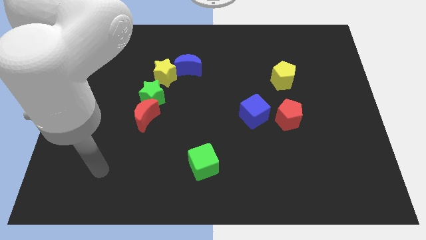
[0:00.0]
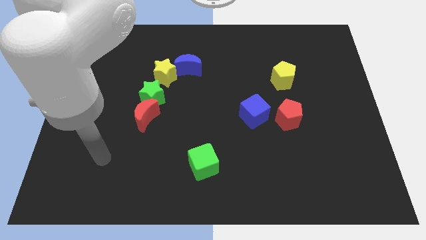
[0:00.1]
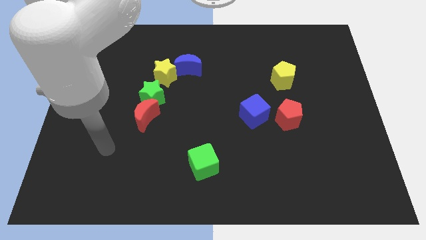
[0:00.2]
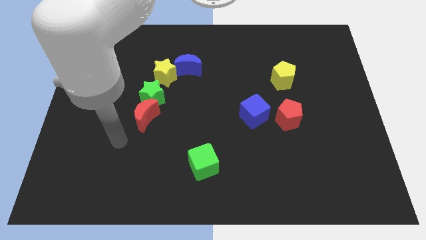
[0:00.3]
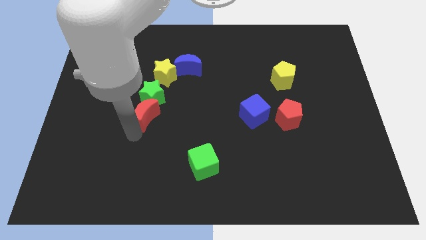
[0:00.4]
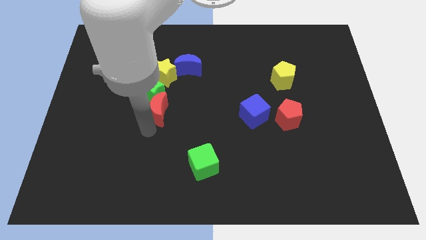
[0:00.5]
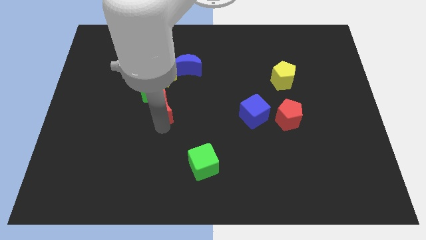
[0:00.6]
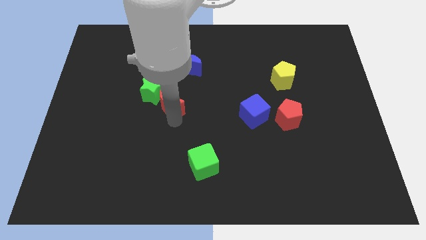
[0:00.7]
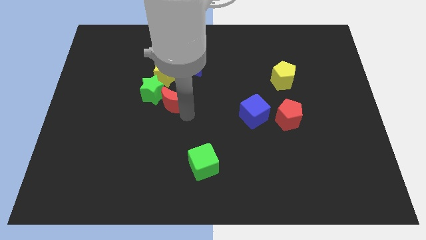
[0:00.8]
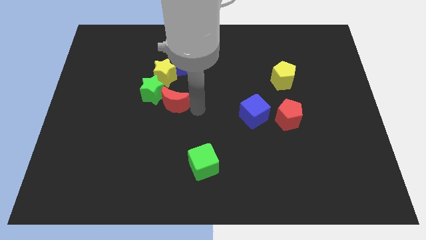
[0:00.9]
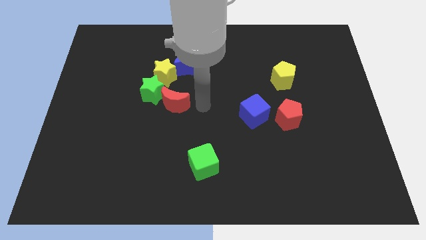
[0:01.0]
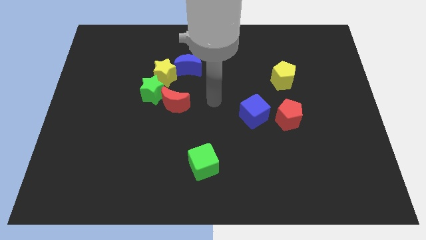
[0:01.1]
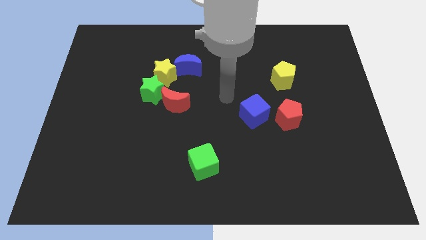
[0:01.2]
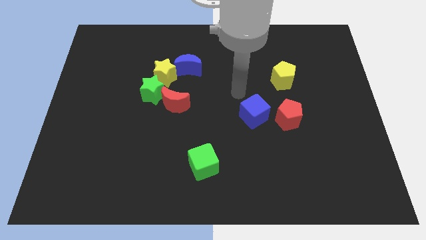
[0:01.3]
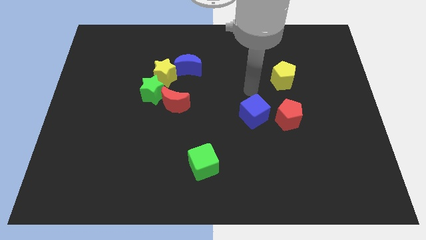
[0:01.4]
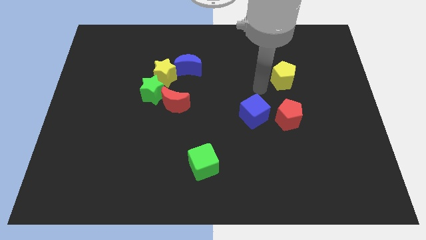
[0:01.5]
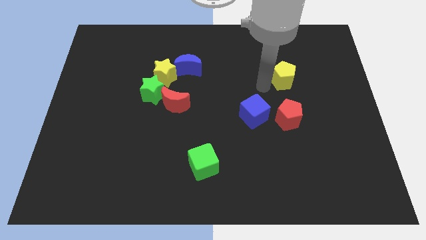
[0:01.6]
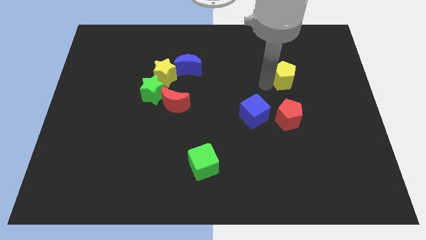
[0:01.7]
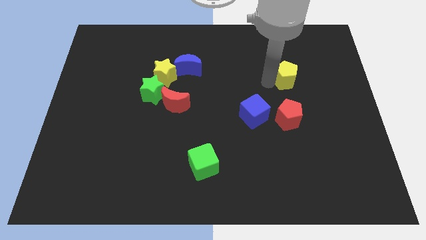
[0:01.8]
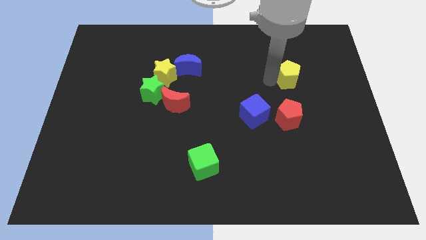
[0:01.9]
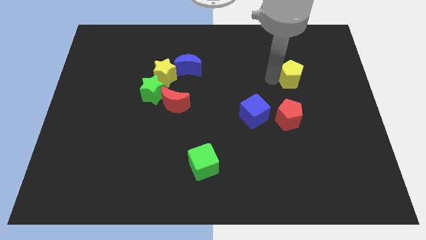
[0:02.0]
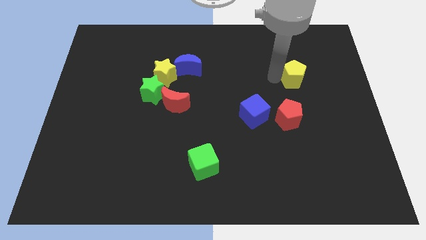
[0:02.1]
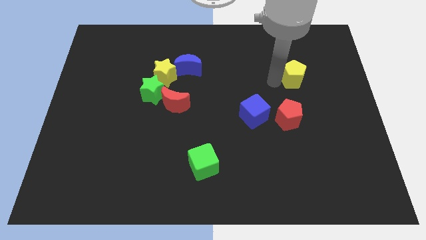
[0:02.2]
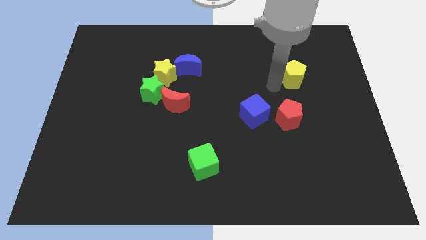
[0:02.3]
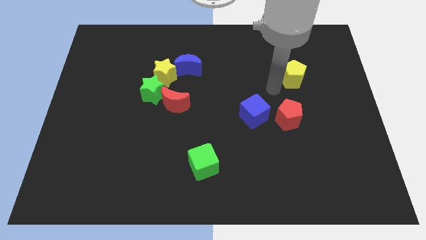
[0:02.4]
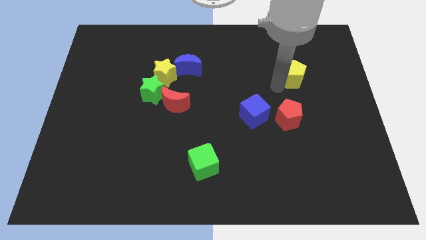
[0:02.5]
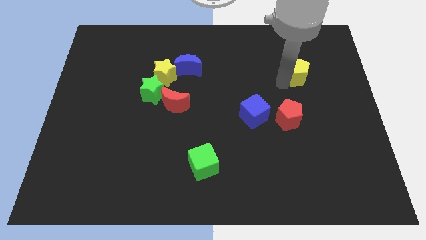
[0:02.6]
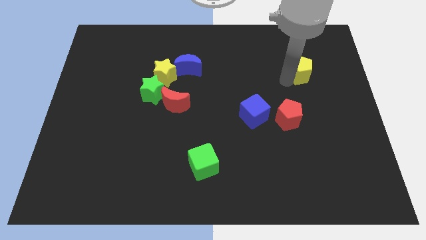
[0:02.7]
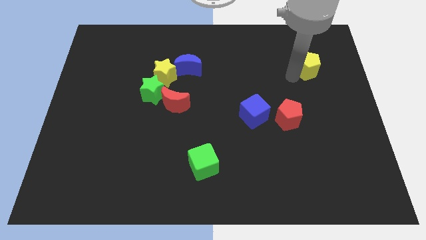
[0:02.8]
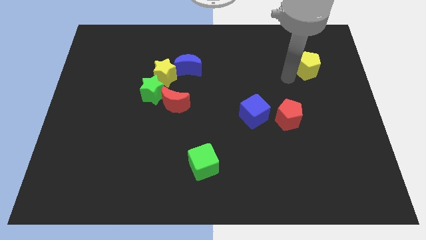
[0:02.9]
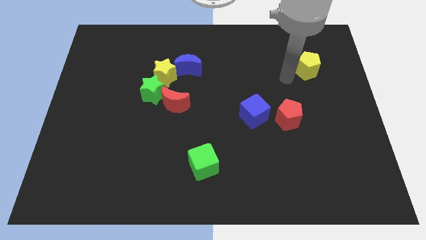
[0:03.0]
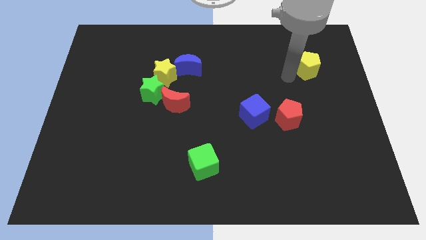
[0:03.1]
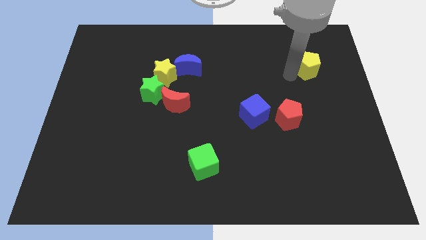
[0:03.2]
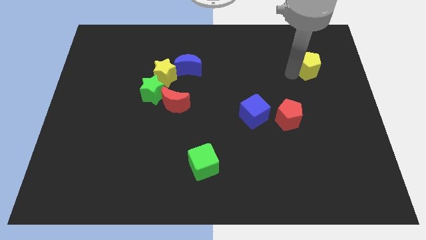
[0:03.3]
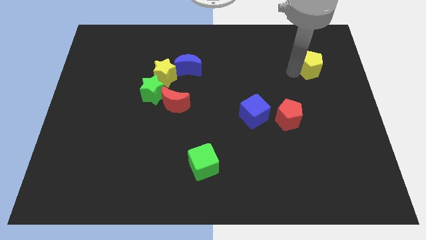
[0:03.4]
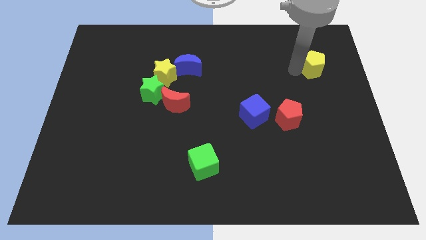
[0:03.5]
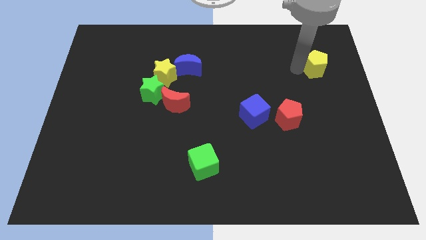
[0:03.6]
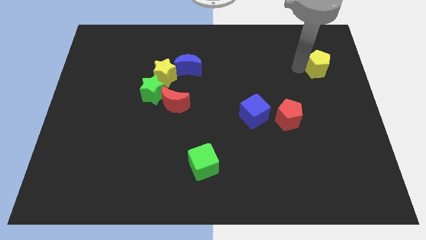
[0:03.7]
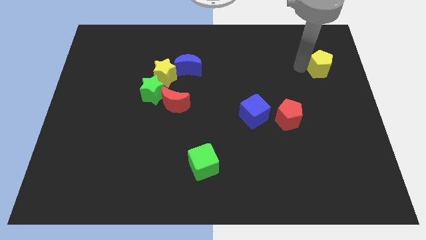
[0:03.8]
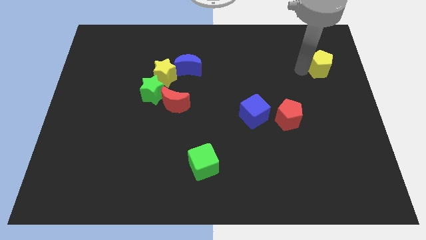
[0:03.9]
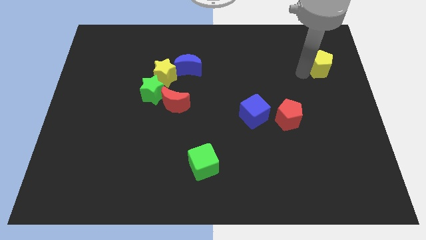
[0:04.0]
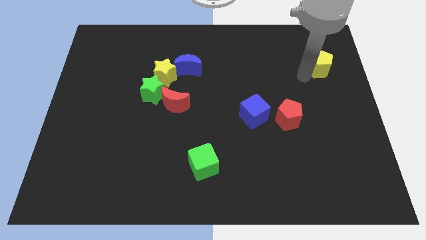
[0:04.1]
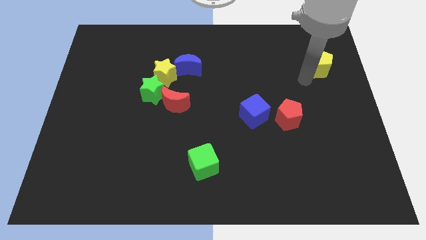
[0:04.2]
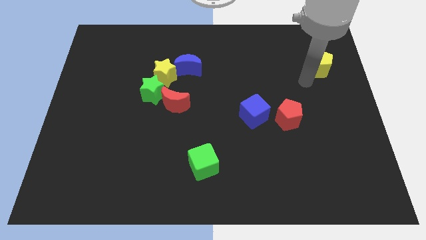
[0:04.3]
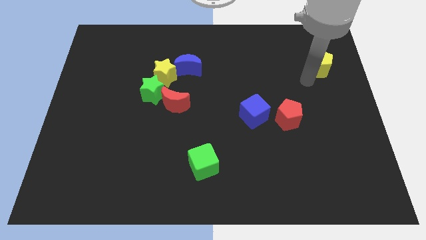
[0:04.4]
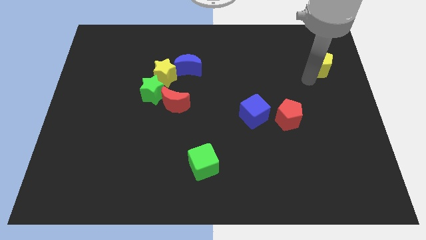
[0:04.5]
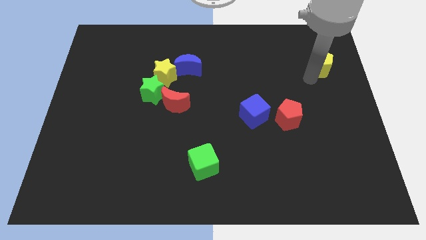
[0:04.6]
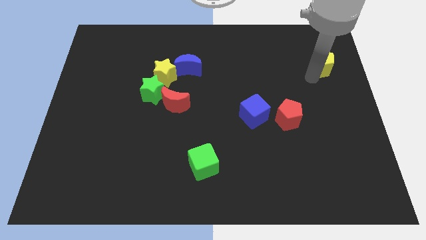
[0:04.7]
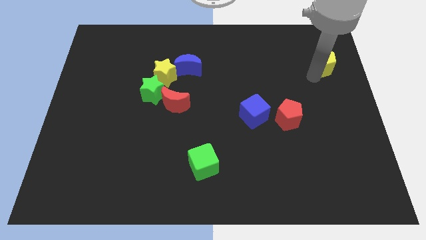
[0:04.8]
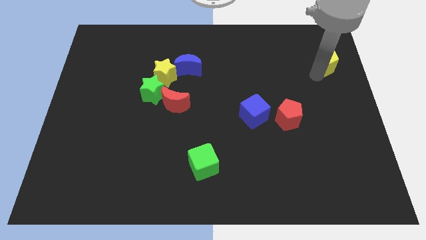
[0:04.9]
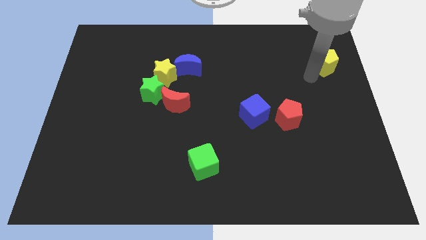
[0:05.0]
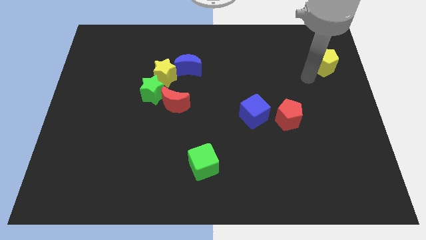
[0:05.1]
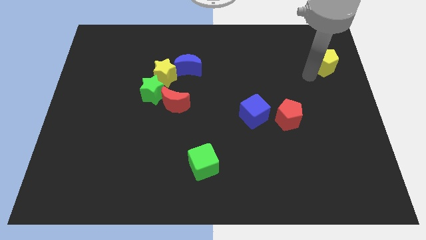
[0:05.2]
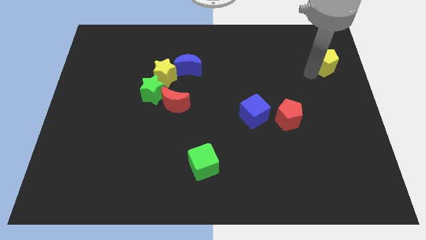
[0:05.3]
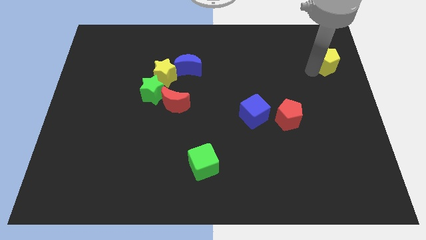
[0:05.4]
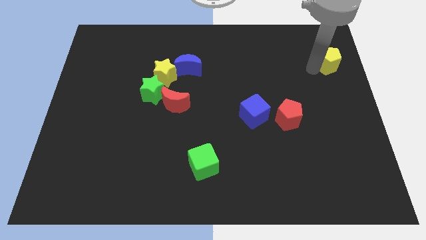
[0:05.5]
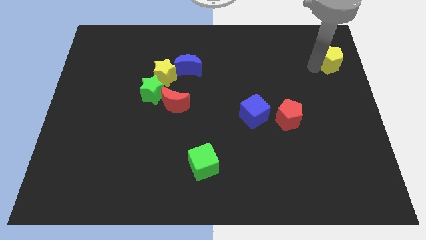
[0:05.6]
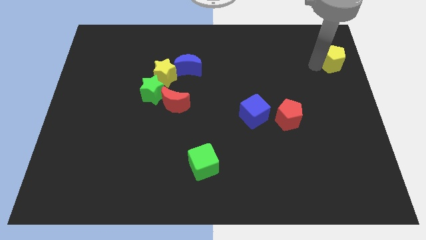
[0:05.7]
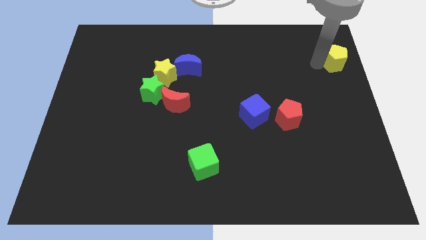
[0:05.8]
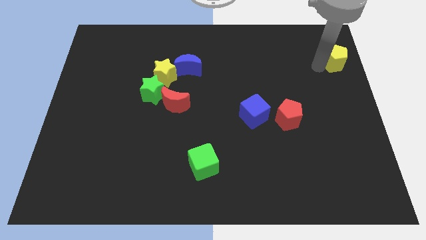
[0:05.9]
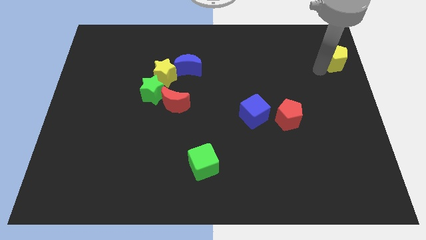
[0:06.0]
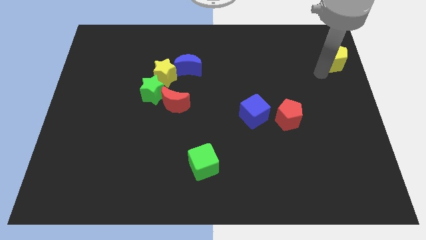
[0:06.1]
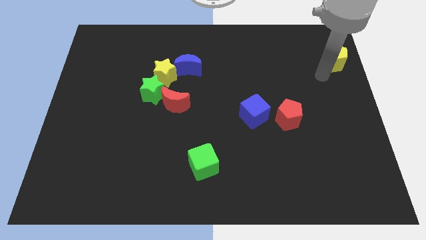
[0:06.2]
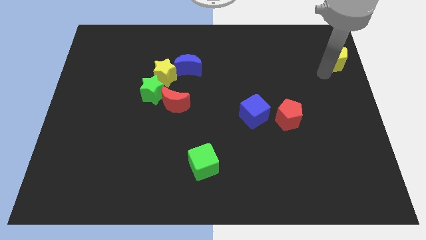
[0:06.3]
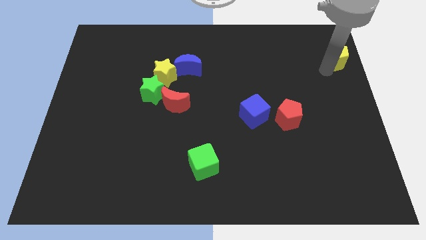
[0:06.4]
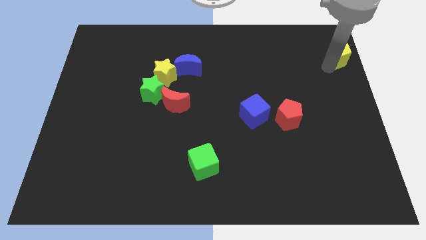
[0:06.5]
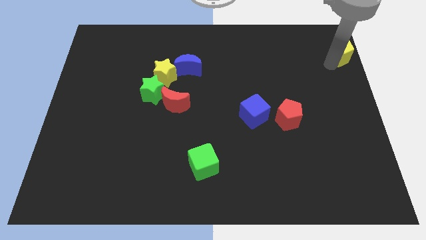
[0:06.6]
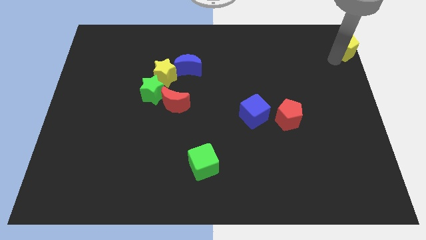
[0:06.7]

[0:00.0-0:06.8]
move the yellow pentagon to the top right of the board
